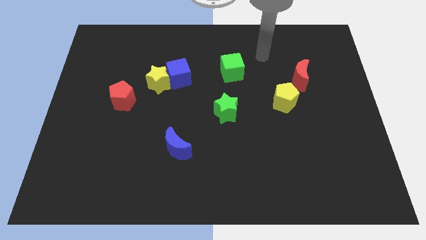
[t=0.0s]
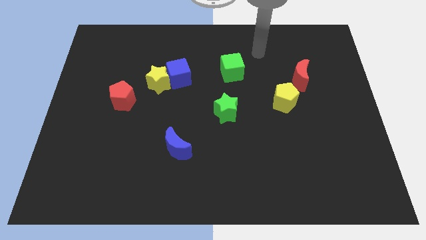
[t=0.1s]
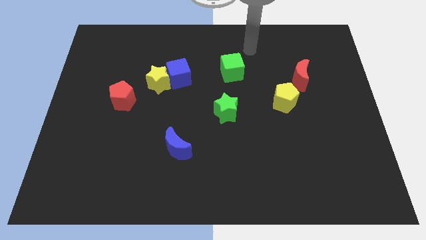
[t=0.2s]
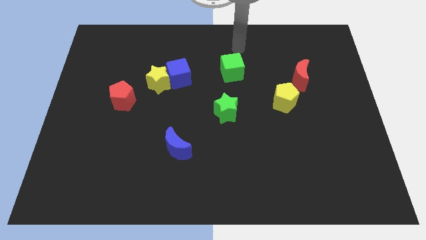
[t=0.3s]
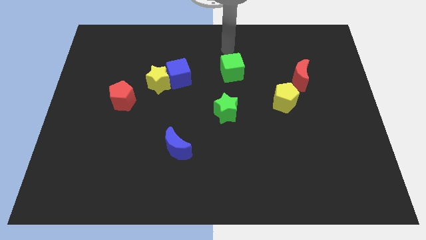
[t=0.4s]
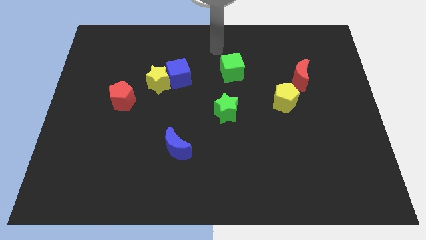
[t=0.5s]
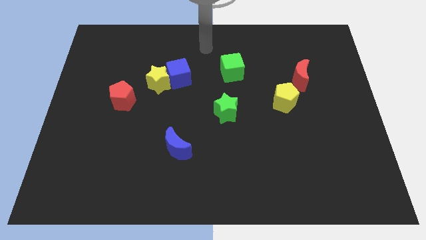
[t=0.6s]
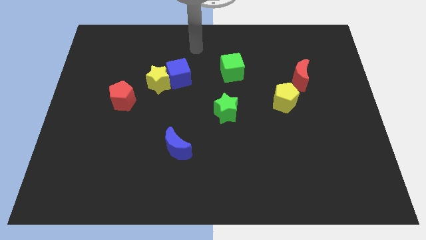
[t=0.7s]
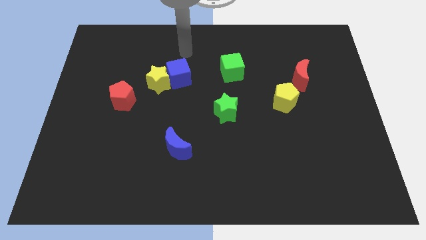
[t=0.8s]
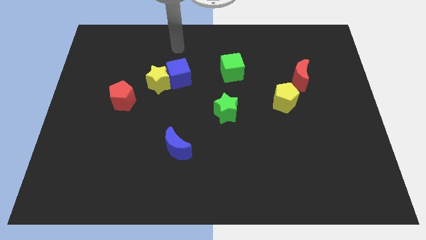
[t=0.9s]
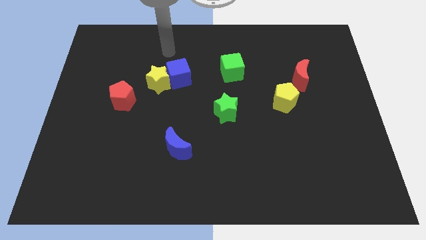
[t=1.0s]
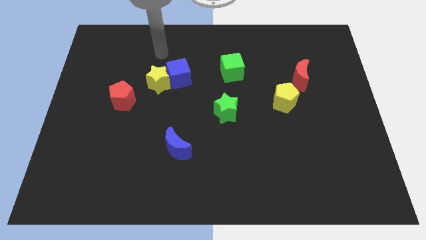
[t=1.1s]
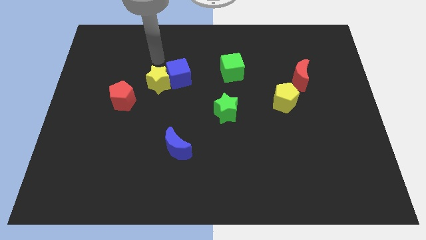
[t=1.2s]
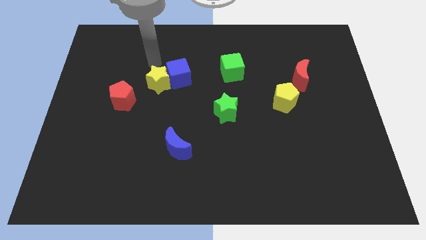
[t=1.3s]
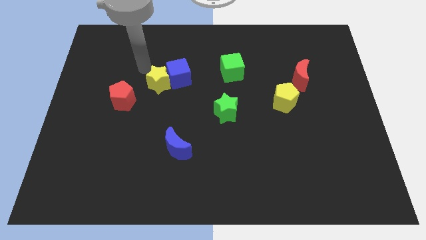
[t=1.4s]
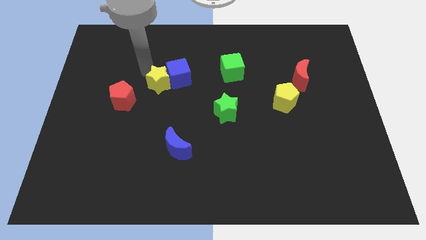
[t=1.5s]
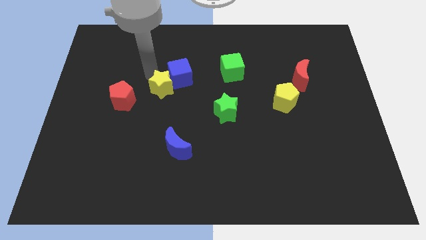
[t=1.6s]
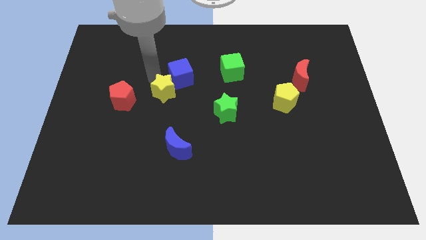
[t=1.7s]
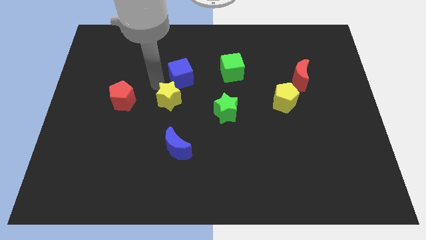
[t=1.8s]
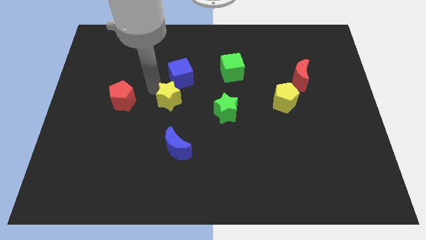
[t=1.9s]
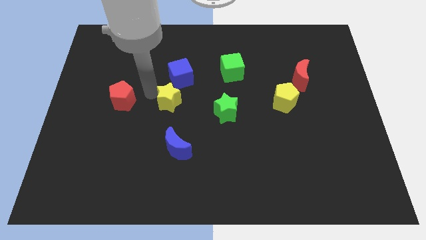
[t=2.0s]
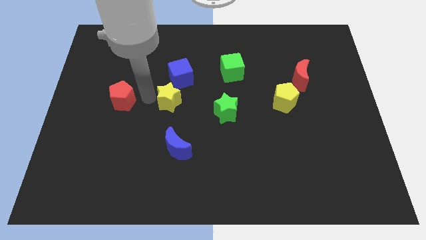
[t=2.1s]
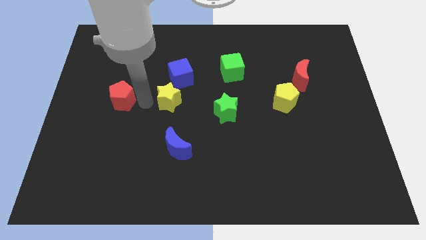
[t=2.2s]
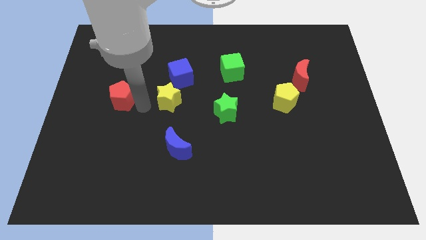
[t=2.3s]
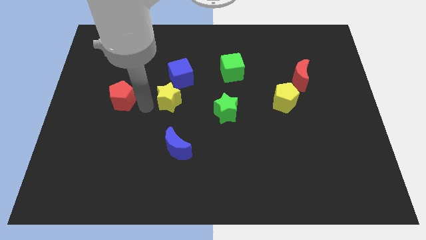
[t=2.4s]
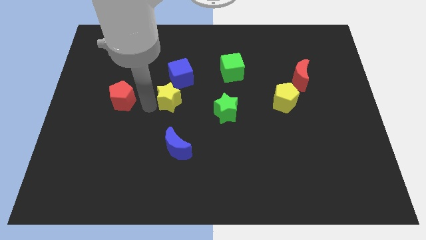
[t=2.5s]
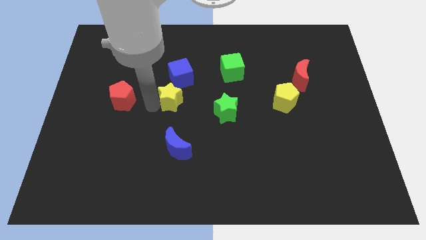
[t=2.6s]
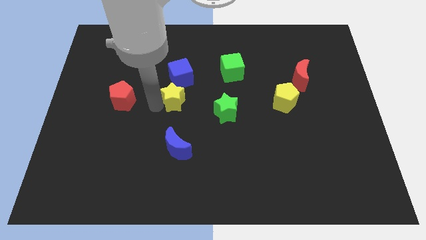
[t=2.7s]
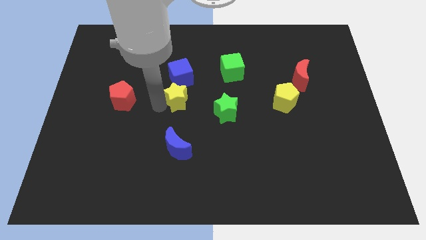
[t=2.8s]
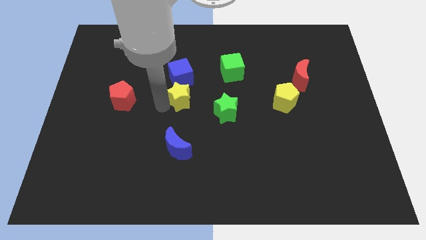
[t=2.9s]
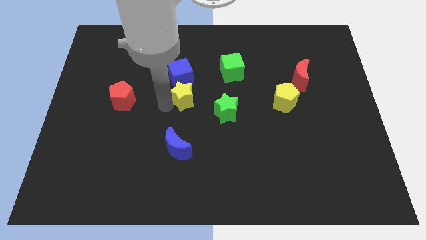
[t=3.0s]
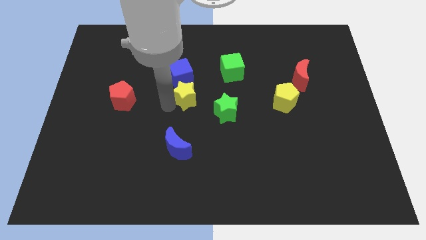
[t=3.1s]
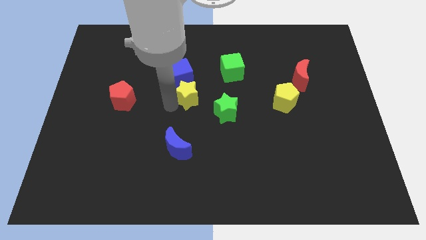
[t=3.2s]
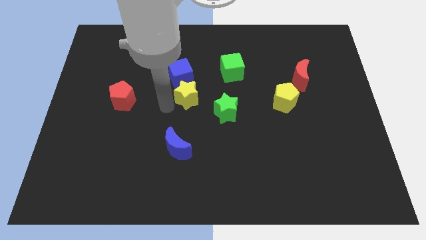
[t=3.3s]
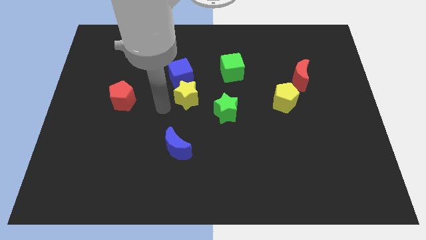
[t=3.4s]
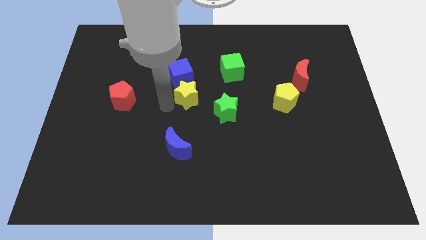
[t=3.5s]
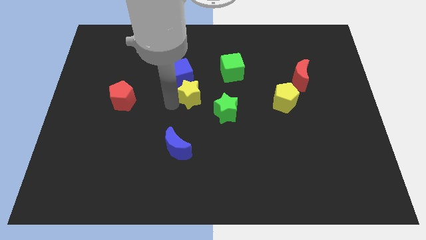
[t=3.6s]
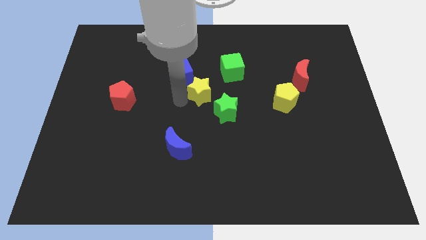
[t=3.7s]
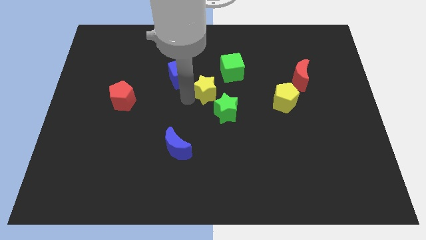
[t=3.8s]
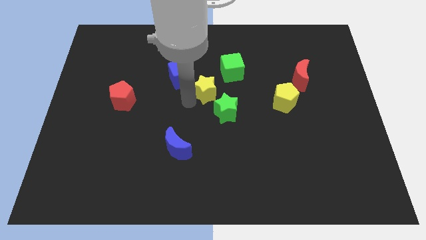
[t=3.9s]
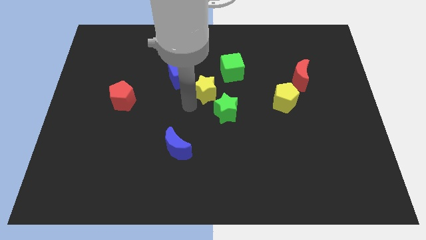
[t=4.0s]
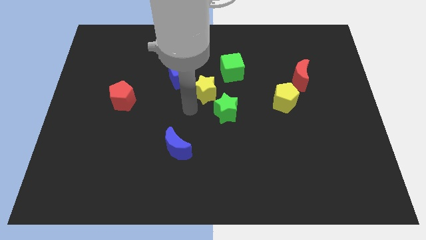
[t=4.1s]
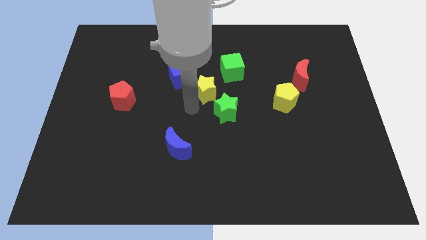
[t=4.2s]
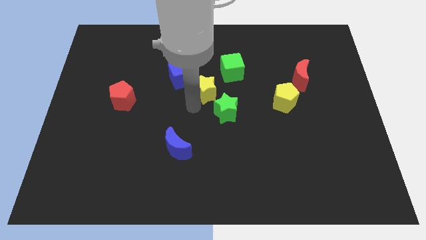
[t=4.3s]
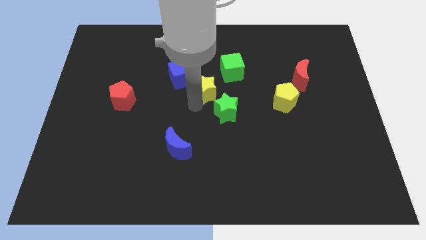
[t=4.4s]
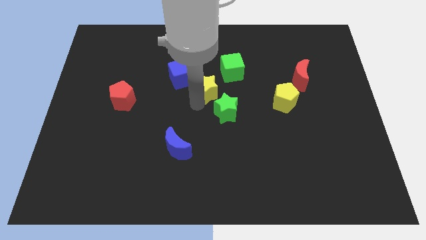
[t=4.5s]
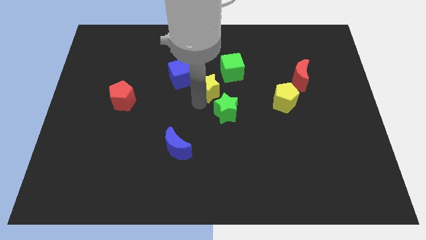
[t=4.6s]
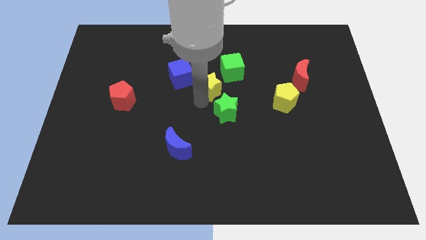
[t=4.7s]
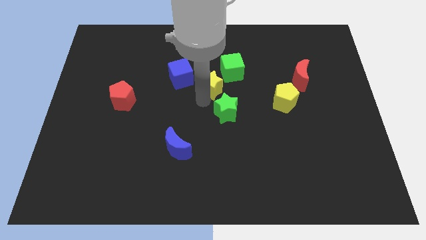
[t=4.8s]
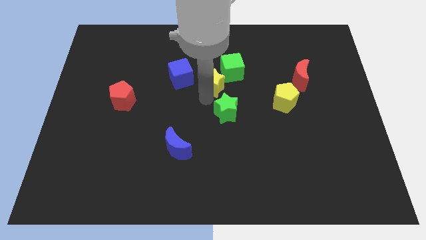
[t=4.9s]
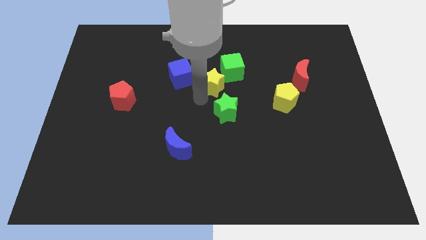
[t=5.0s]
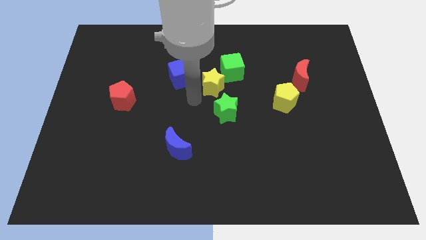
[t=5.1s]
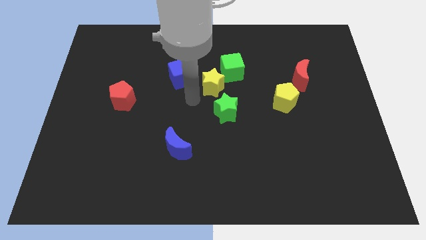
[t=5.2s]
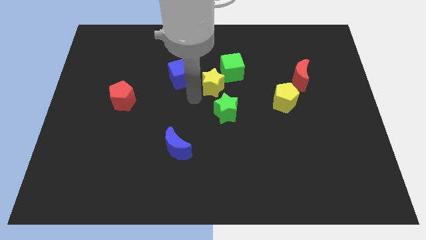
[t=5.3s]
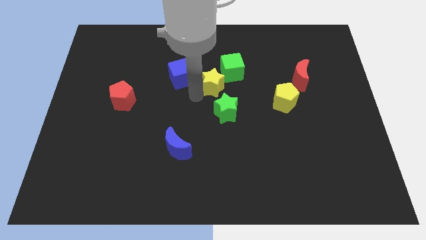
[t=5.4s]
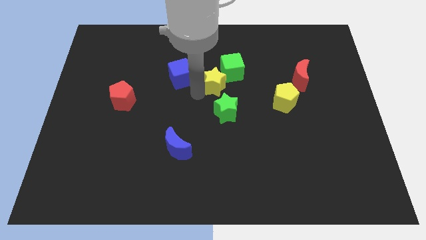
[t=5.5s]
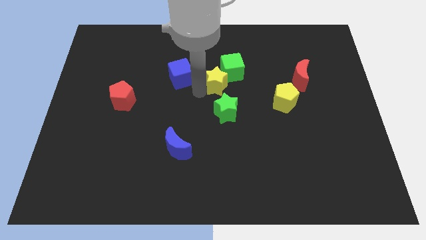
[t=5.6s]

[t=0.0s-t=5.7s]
push the yellow star close to the green cube

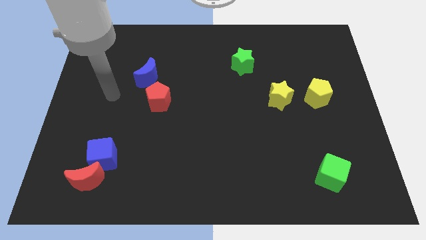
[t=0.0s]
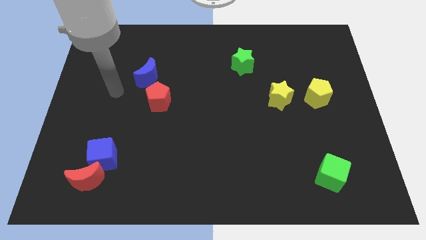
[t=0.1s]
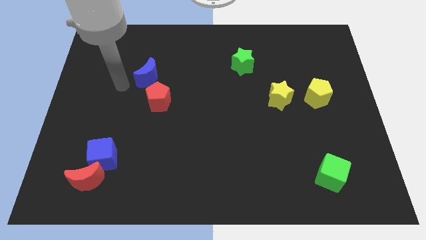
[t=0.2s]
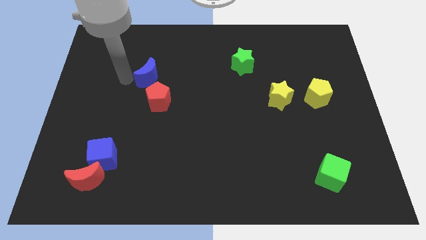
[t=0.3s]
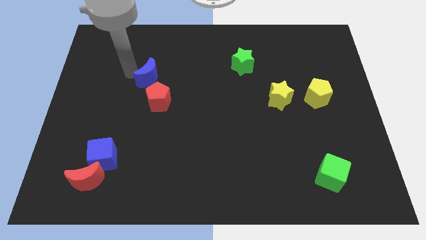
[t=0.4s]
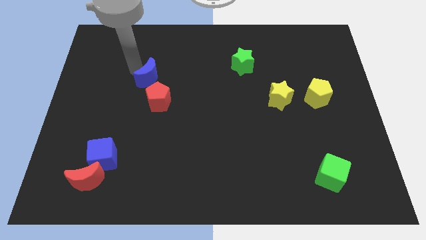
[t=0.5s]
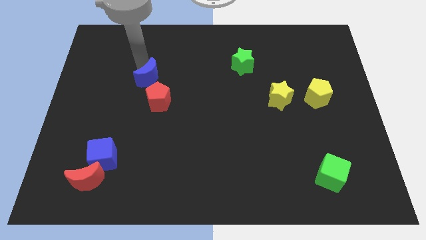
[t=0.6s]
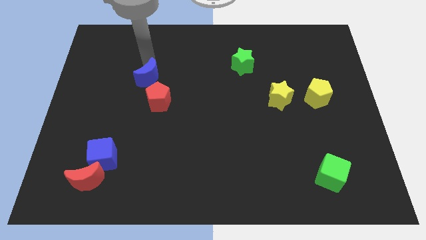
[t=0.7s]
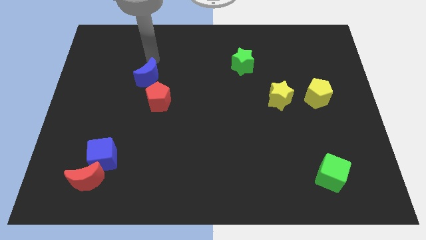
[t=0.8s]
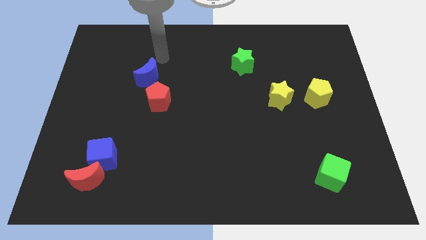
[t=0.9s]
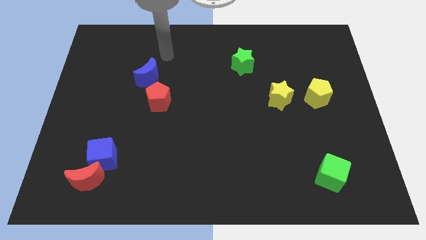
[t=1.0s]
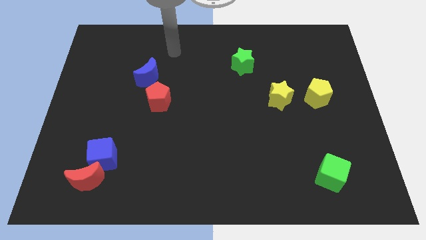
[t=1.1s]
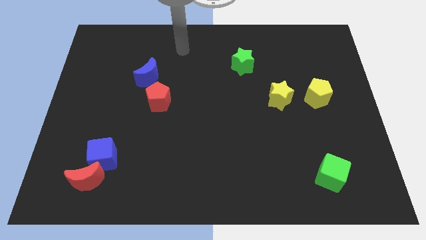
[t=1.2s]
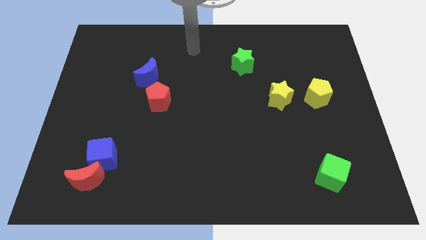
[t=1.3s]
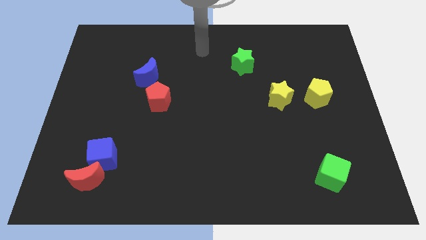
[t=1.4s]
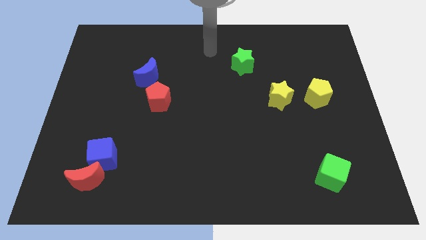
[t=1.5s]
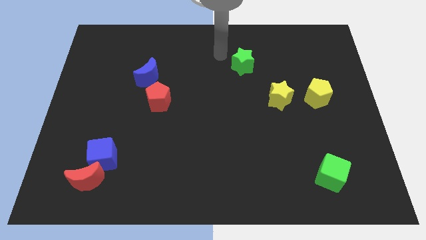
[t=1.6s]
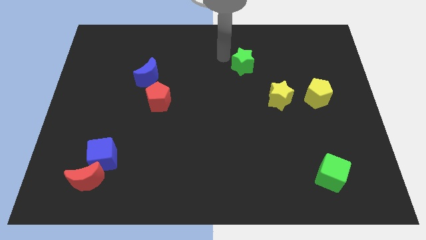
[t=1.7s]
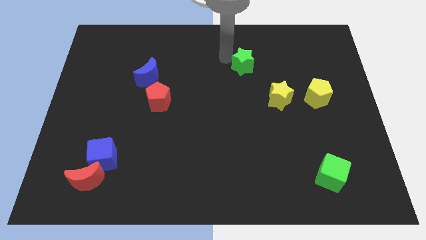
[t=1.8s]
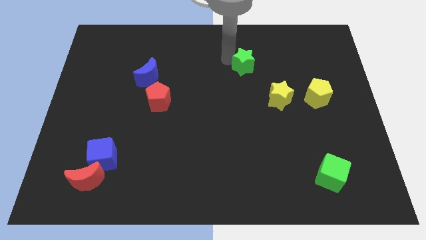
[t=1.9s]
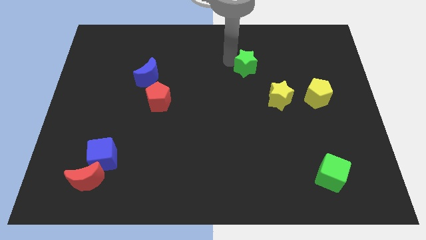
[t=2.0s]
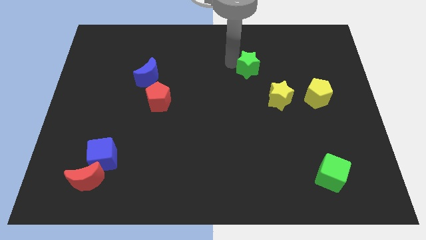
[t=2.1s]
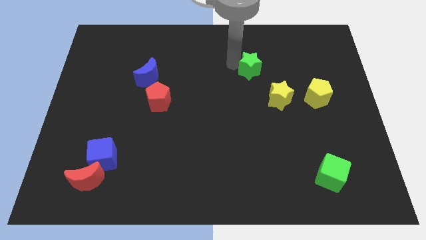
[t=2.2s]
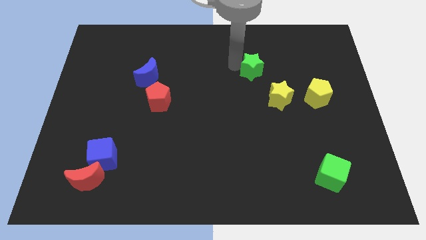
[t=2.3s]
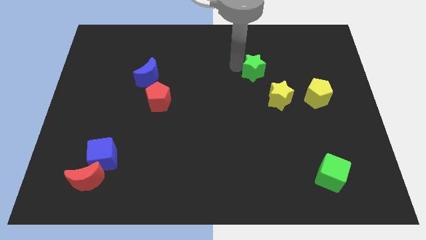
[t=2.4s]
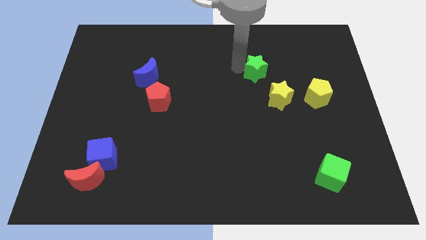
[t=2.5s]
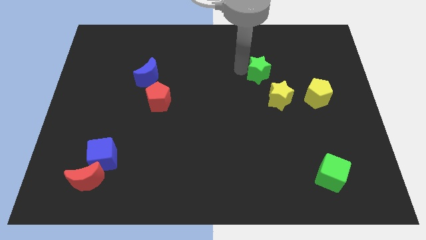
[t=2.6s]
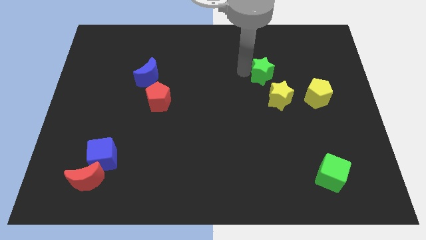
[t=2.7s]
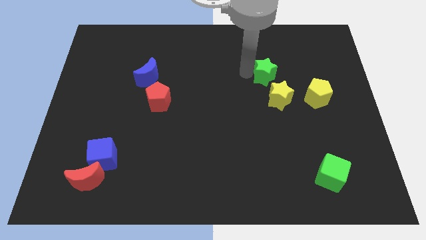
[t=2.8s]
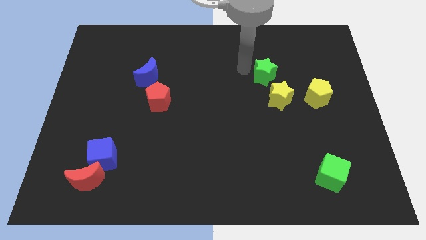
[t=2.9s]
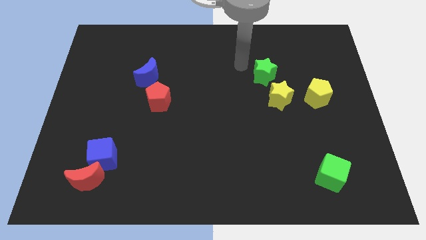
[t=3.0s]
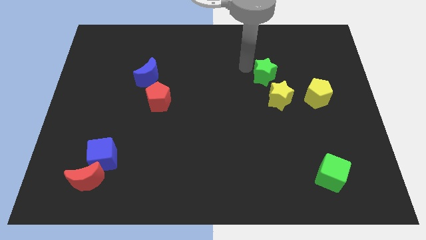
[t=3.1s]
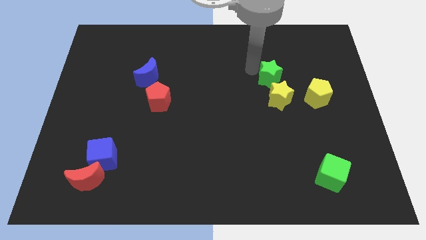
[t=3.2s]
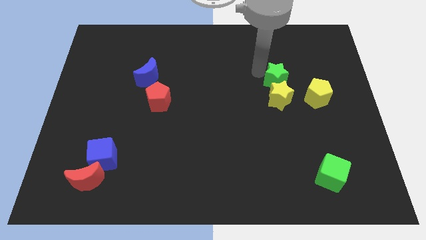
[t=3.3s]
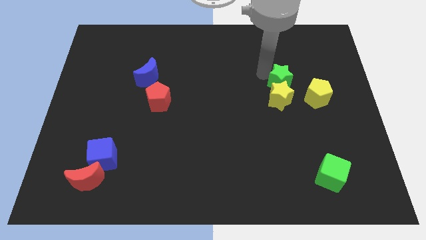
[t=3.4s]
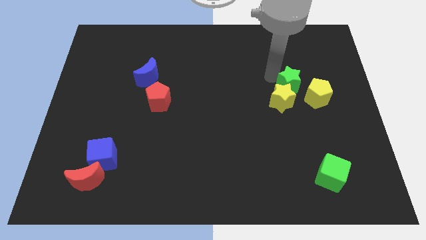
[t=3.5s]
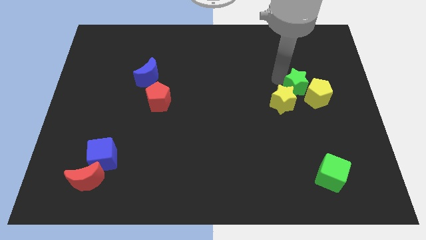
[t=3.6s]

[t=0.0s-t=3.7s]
slide the green star to the yellow pentagon
